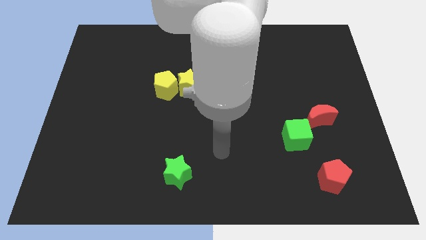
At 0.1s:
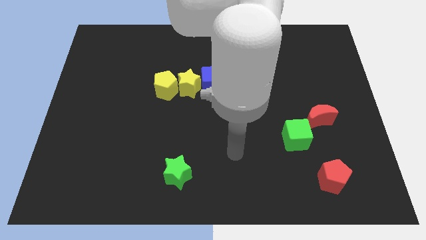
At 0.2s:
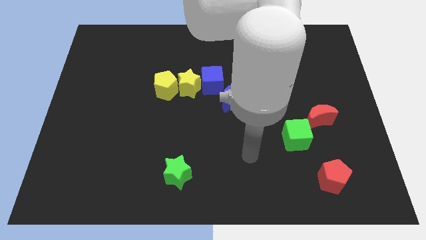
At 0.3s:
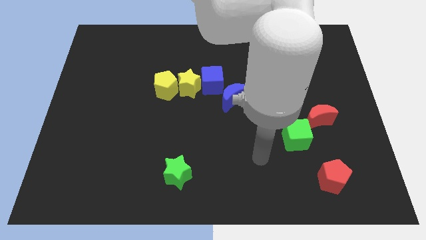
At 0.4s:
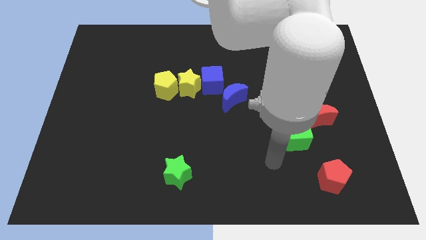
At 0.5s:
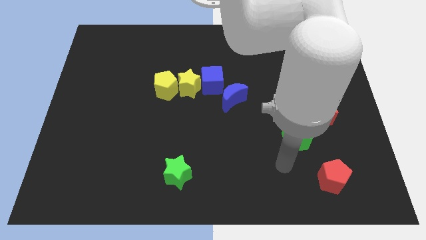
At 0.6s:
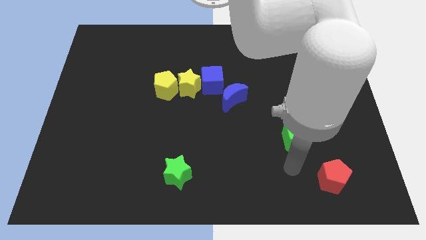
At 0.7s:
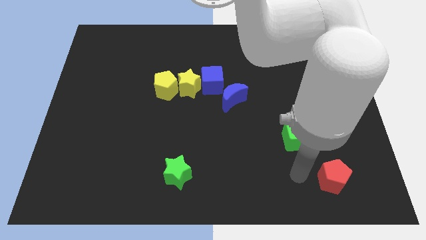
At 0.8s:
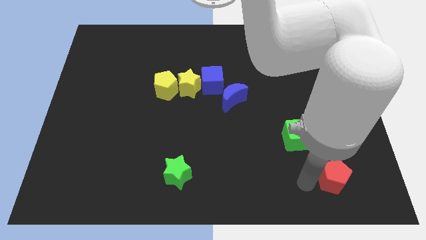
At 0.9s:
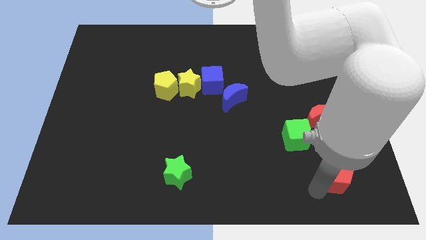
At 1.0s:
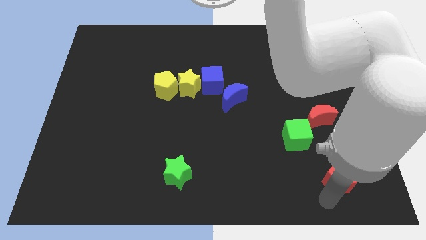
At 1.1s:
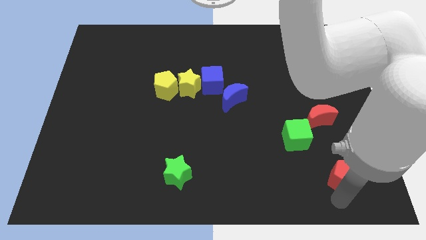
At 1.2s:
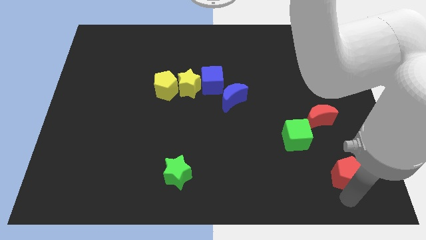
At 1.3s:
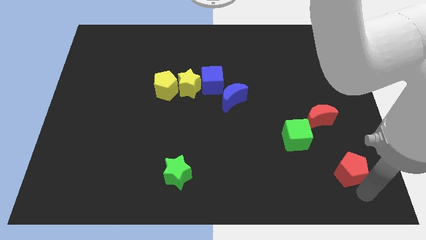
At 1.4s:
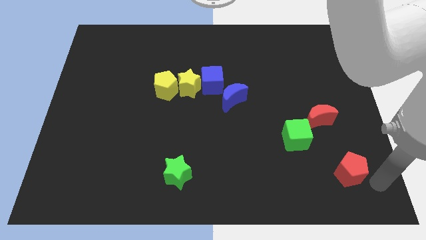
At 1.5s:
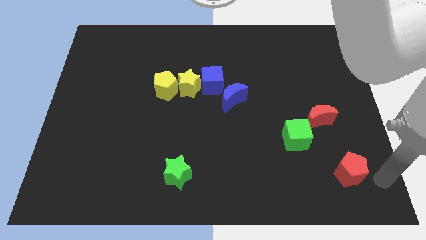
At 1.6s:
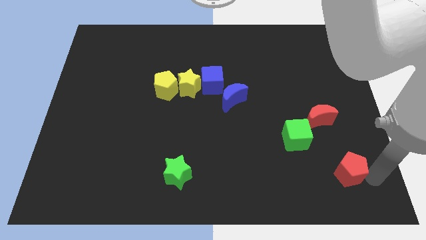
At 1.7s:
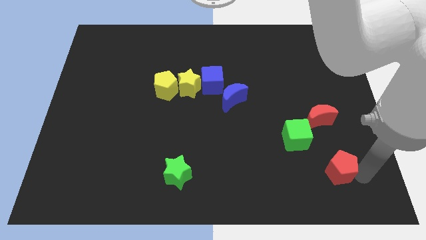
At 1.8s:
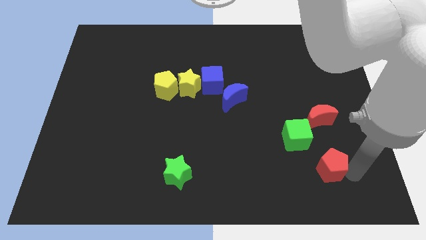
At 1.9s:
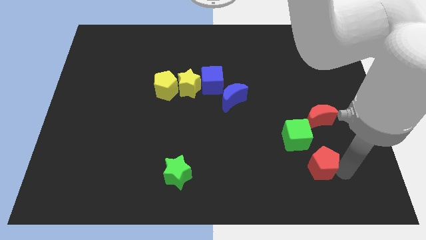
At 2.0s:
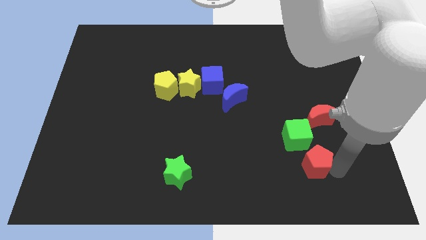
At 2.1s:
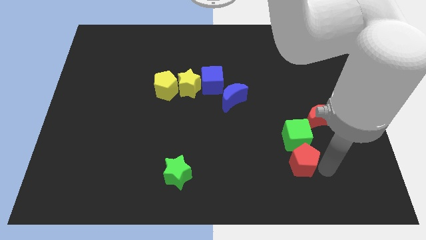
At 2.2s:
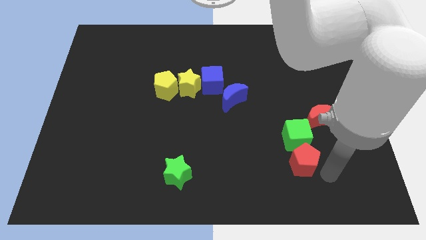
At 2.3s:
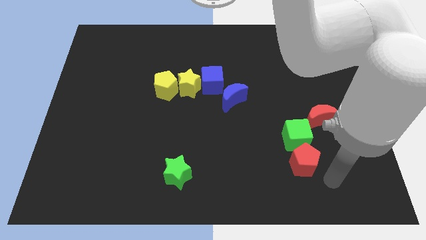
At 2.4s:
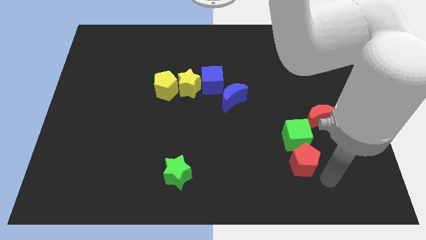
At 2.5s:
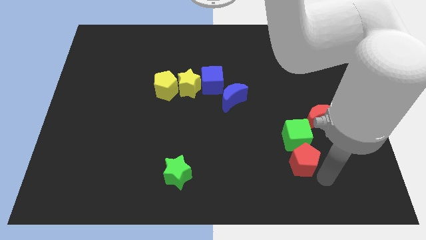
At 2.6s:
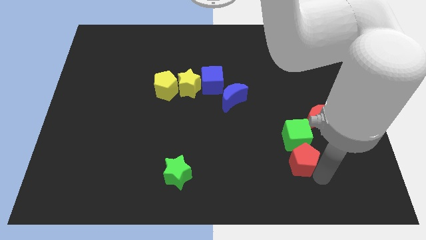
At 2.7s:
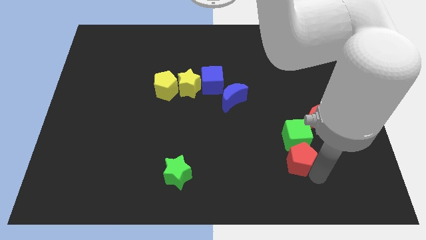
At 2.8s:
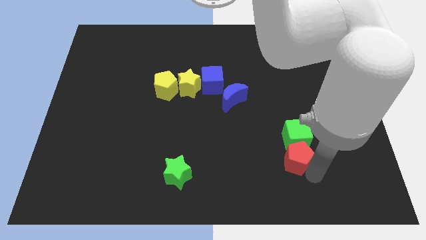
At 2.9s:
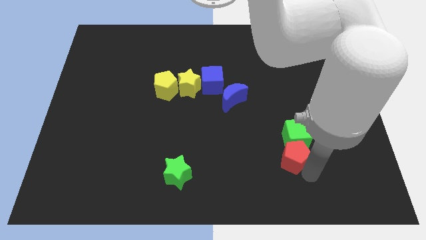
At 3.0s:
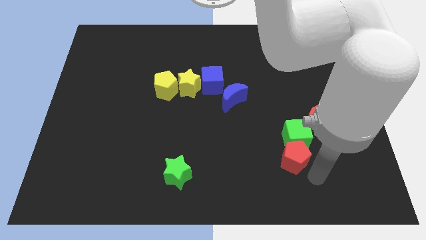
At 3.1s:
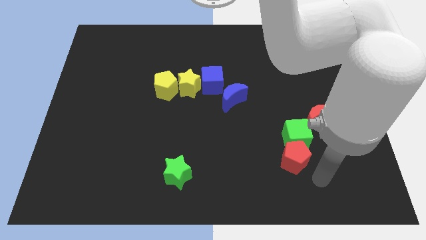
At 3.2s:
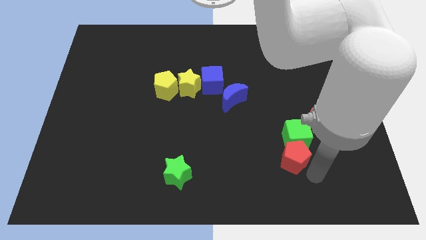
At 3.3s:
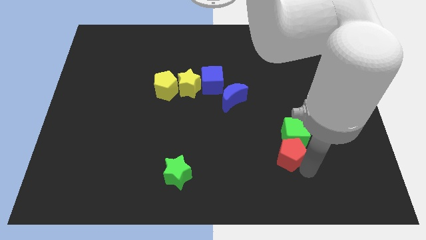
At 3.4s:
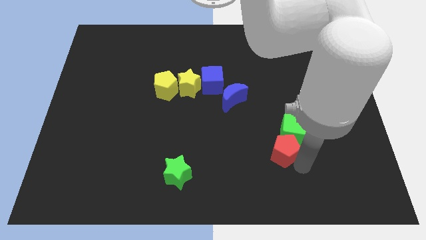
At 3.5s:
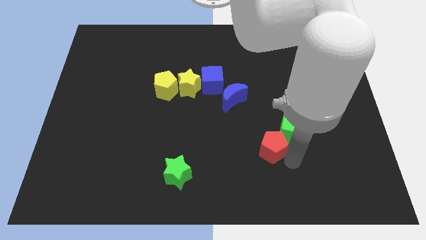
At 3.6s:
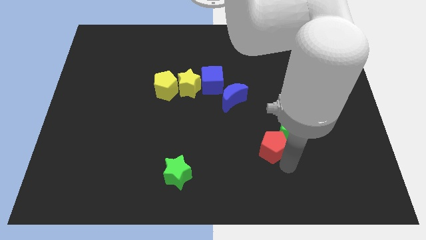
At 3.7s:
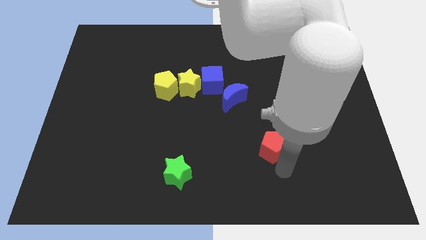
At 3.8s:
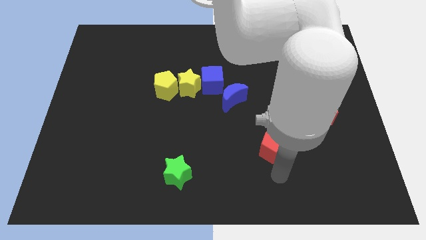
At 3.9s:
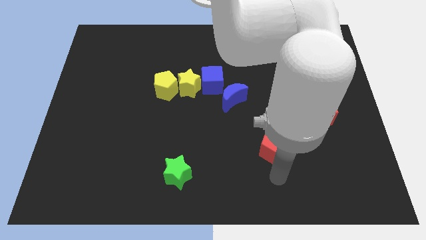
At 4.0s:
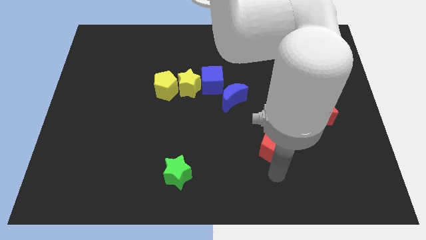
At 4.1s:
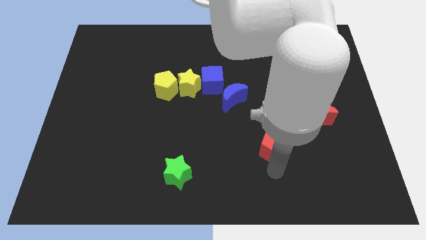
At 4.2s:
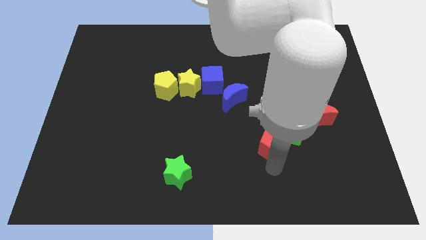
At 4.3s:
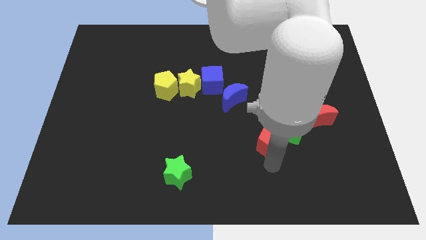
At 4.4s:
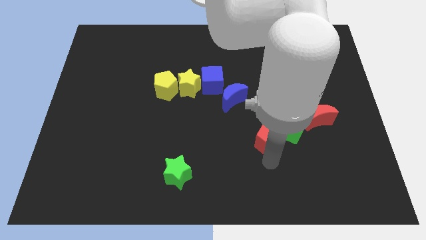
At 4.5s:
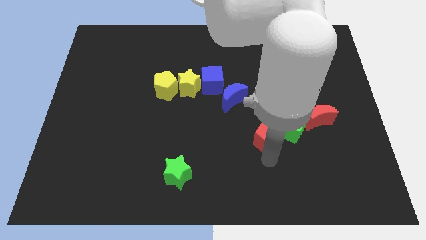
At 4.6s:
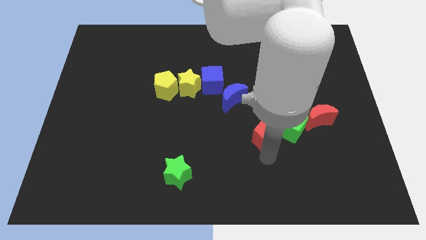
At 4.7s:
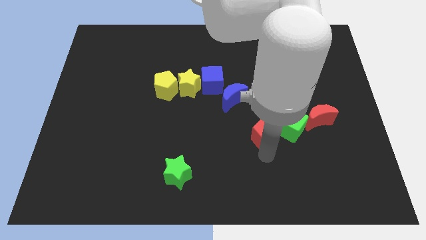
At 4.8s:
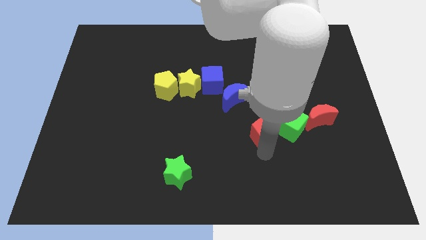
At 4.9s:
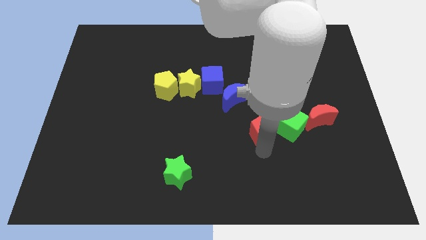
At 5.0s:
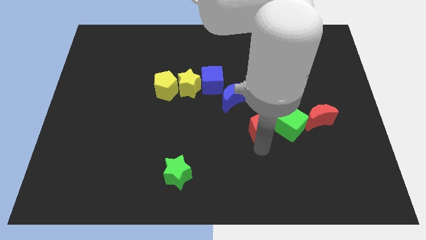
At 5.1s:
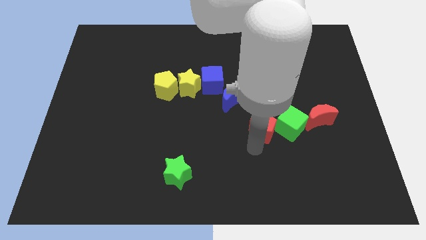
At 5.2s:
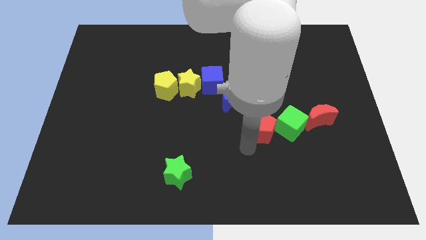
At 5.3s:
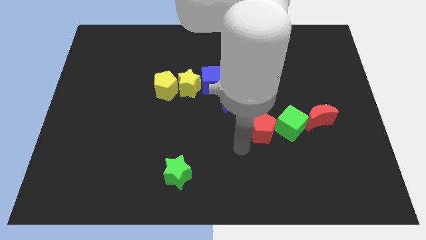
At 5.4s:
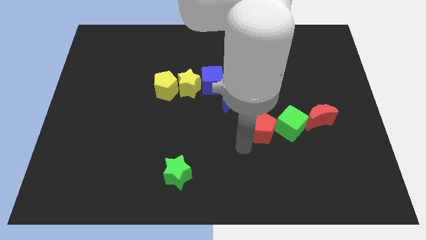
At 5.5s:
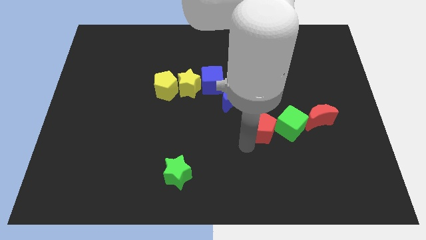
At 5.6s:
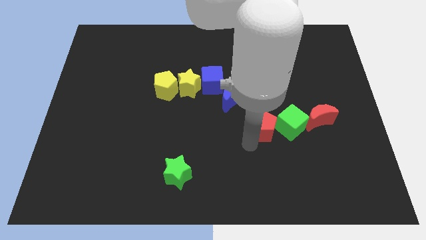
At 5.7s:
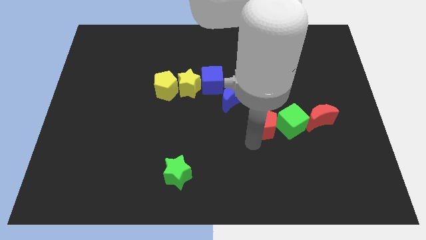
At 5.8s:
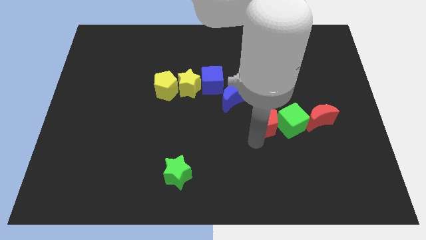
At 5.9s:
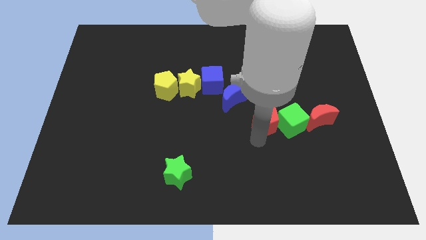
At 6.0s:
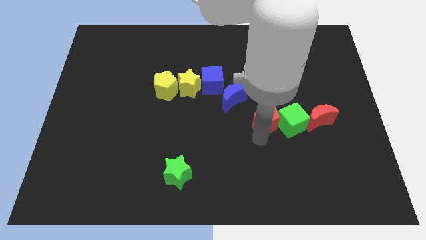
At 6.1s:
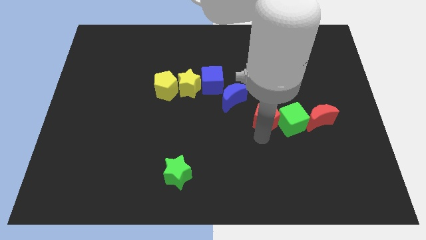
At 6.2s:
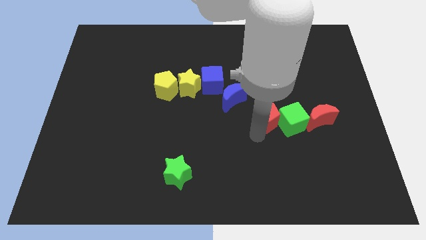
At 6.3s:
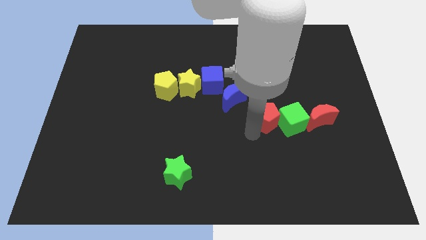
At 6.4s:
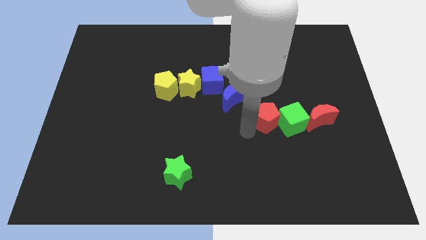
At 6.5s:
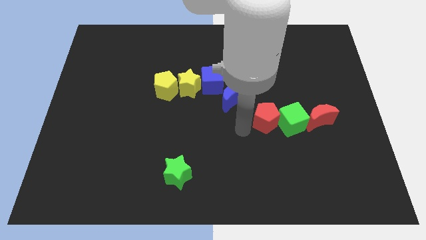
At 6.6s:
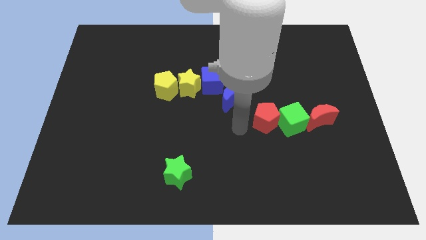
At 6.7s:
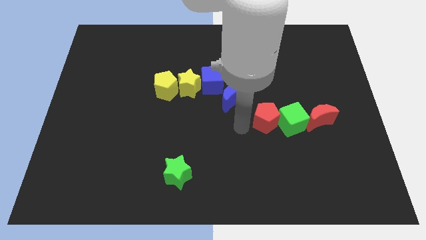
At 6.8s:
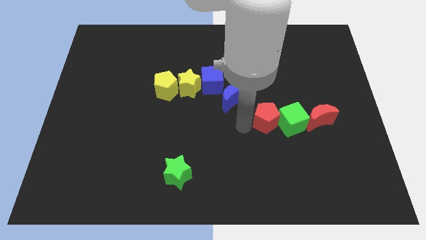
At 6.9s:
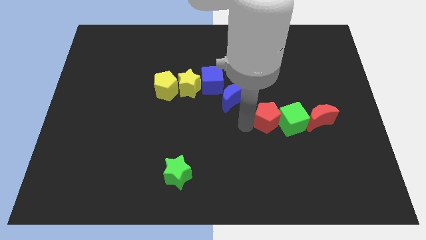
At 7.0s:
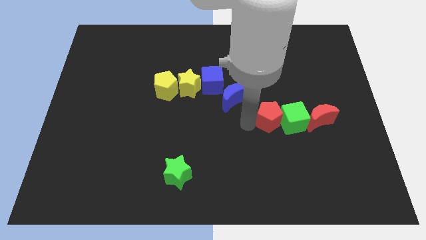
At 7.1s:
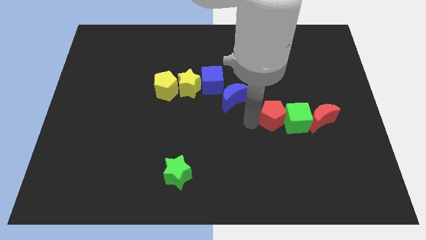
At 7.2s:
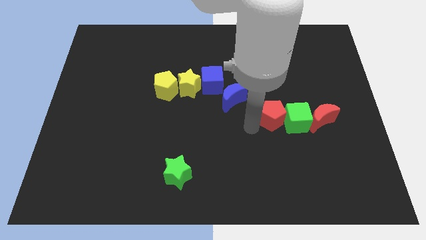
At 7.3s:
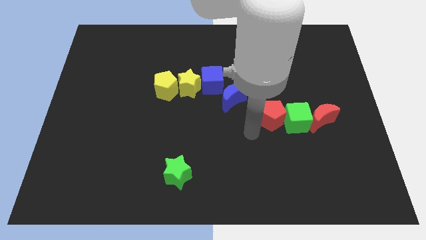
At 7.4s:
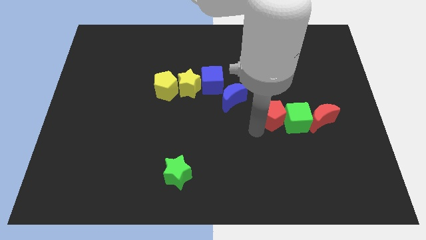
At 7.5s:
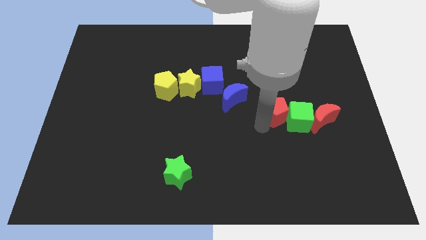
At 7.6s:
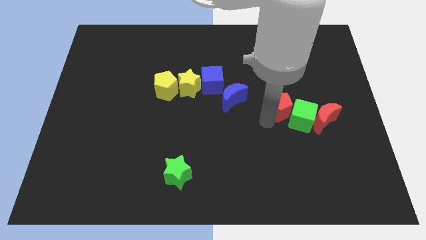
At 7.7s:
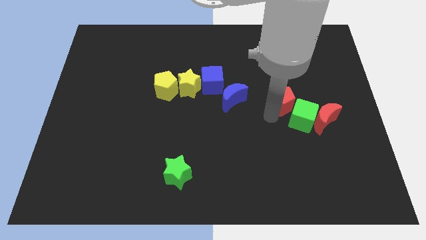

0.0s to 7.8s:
push the red pentagon to the top left side of the red moon
